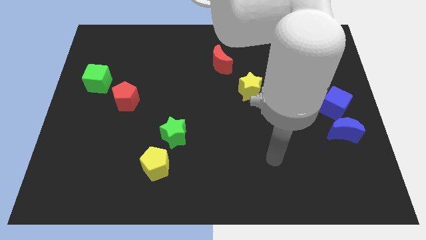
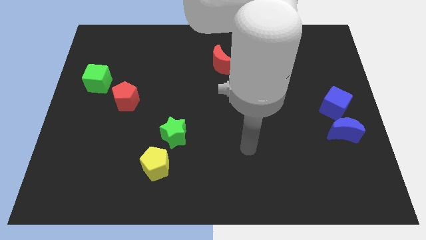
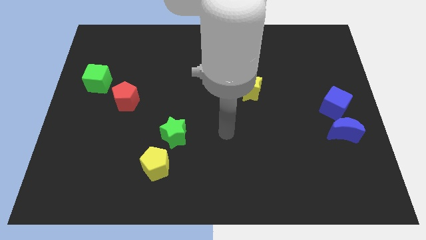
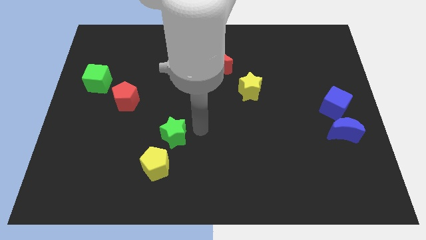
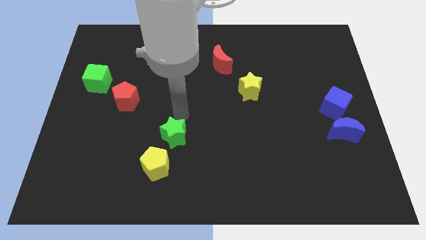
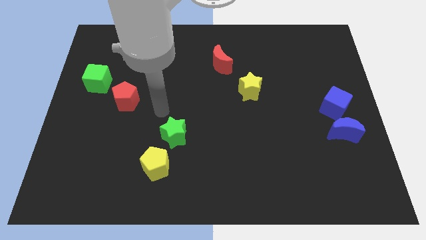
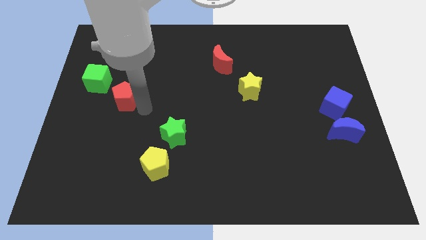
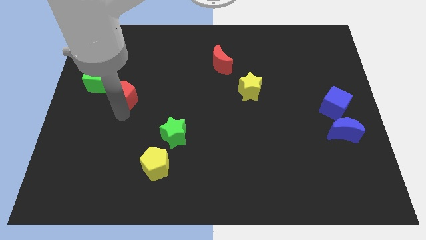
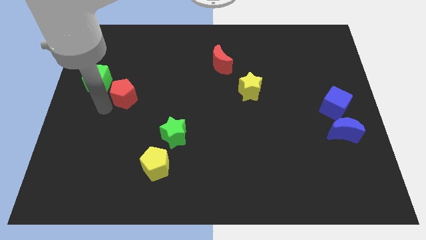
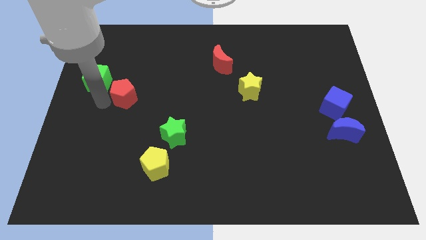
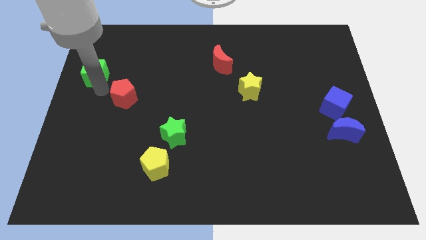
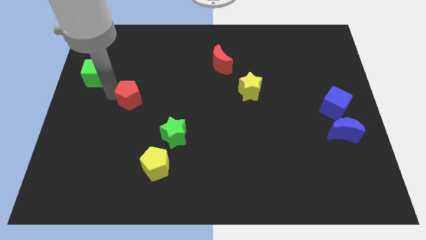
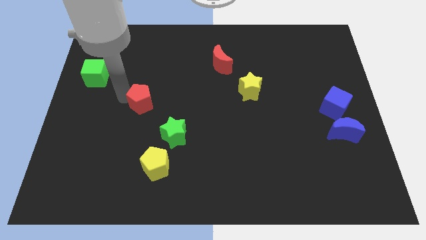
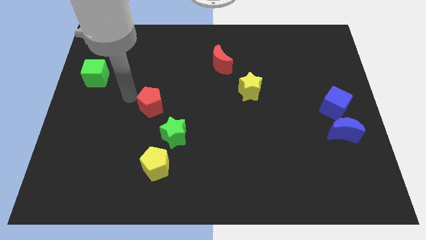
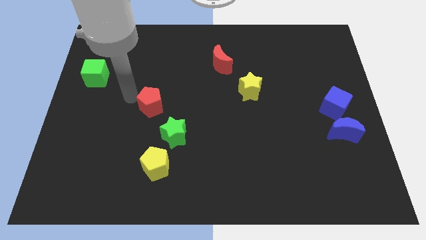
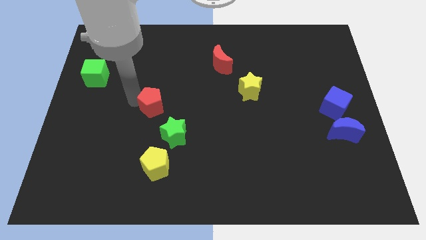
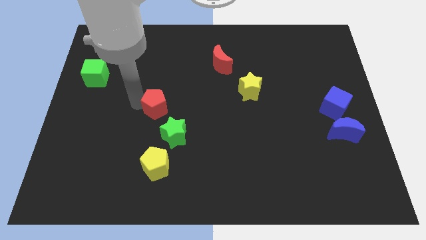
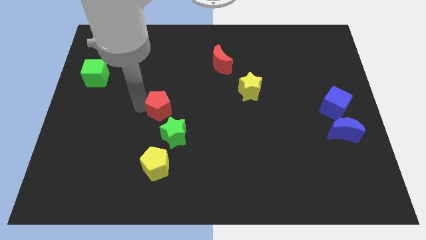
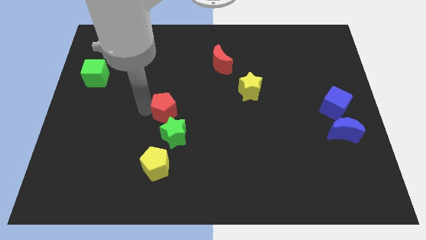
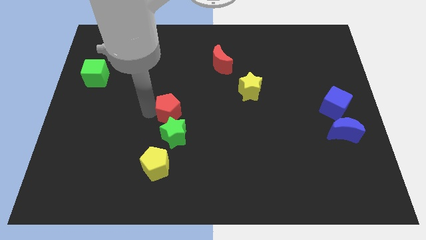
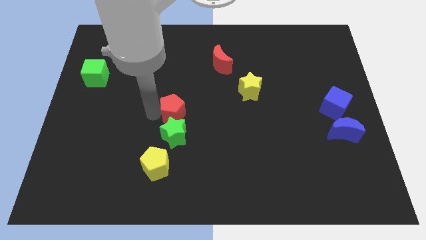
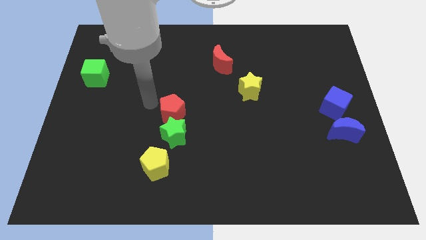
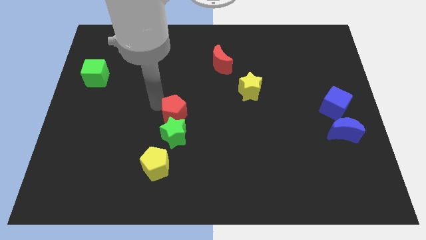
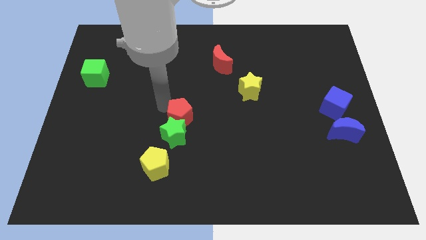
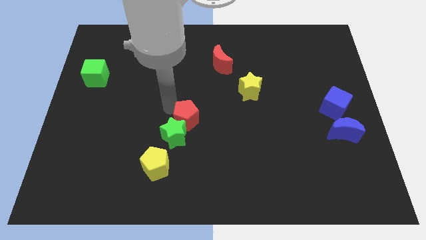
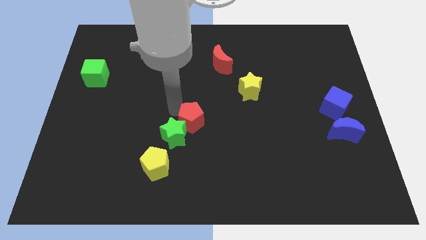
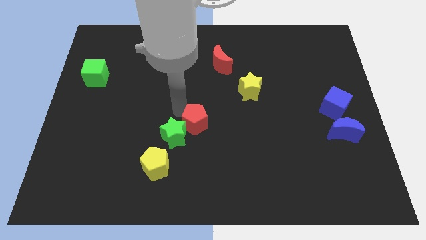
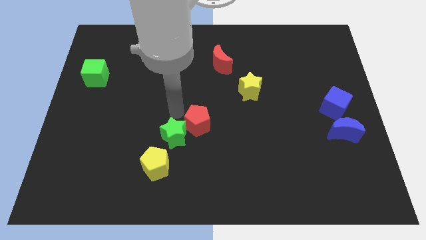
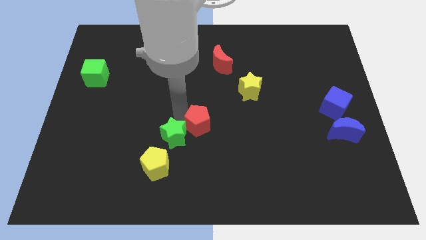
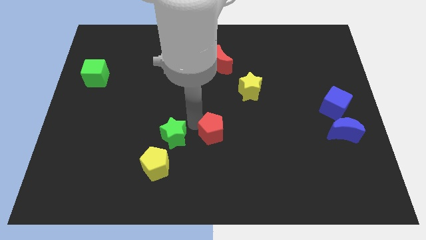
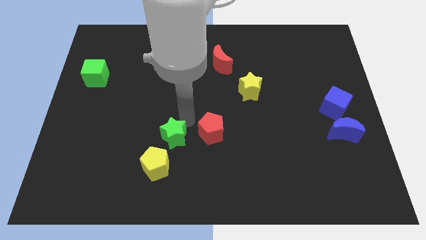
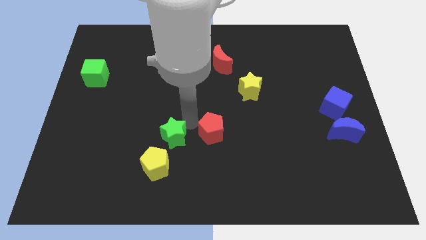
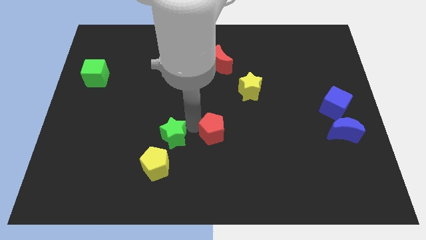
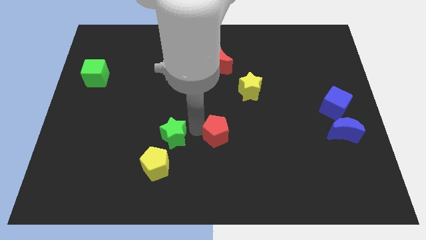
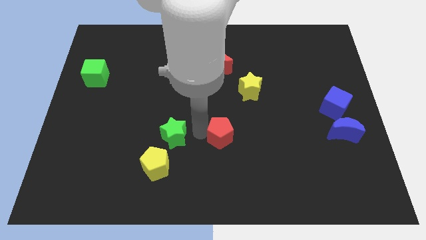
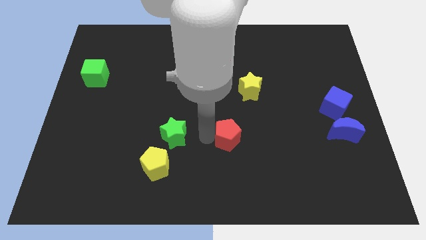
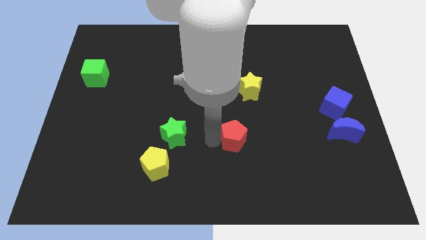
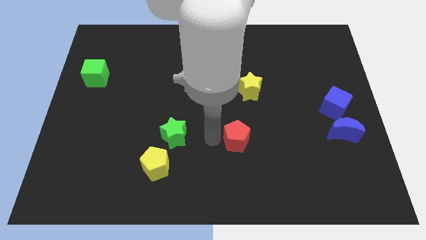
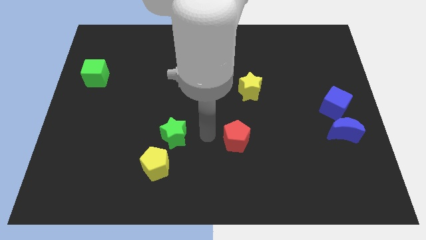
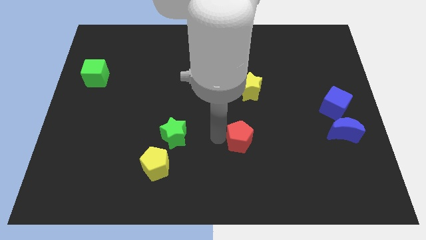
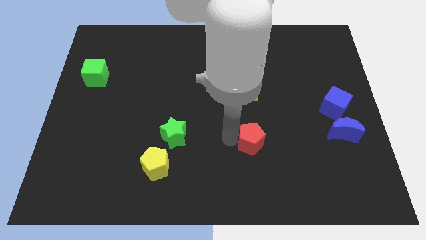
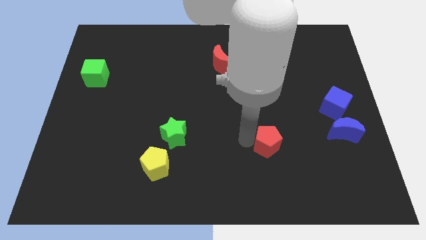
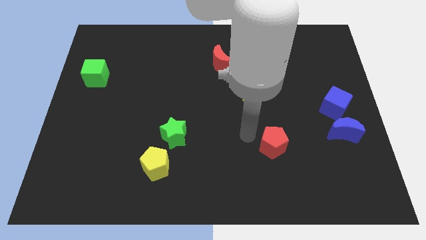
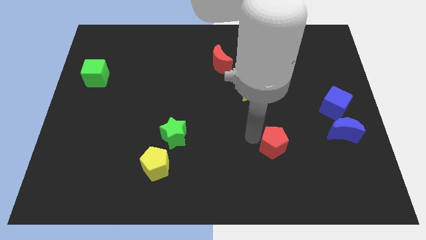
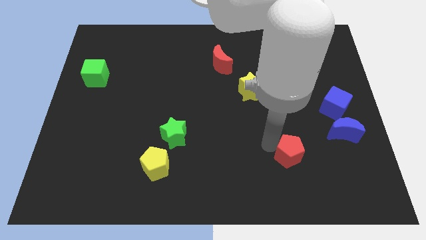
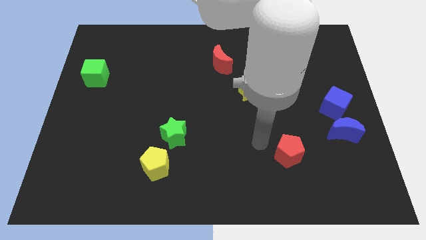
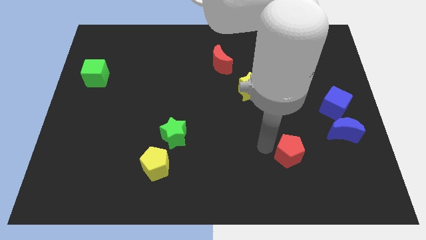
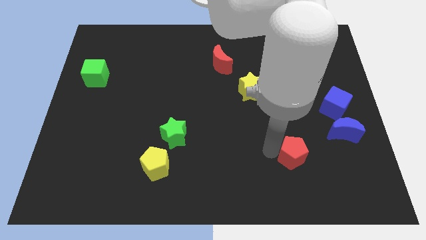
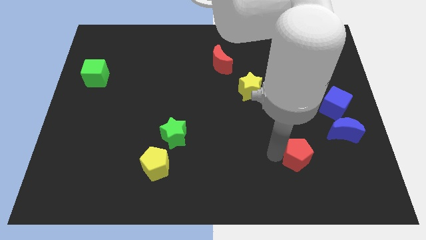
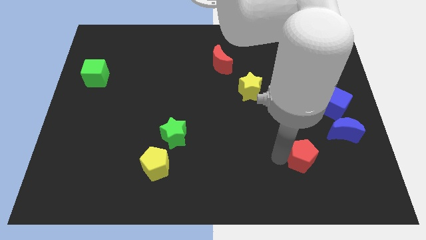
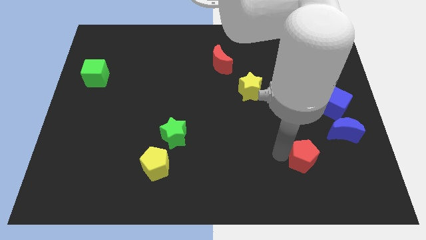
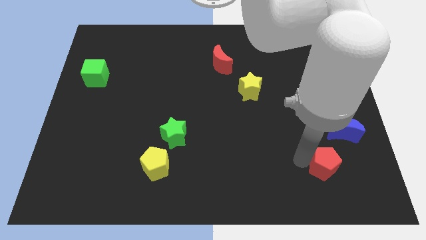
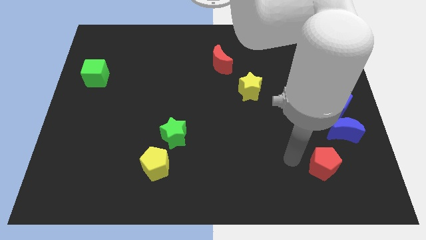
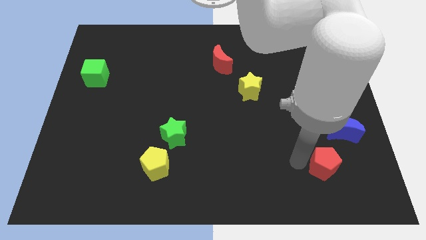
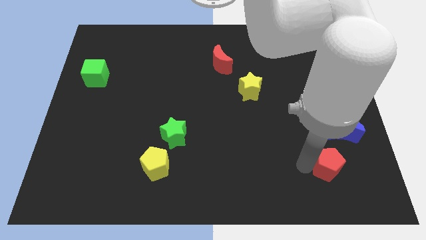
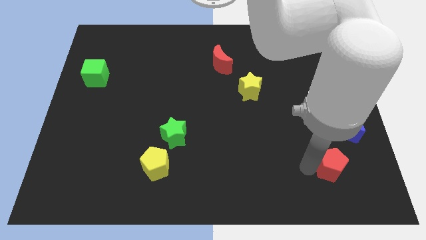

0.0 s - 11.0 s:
slide the red pentagon below the blue moon
